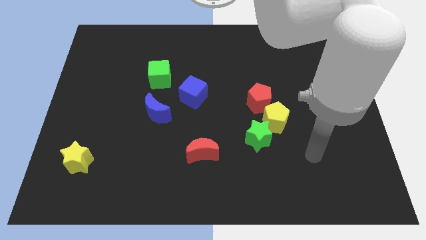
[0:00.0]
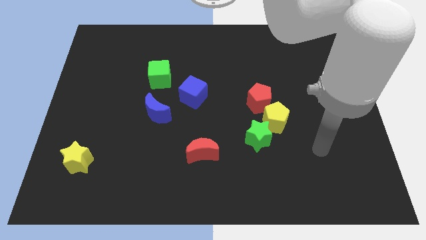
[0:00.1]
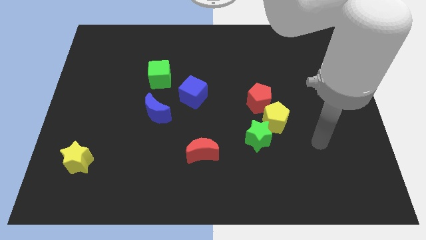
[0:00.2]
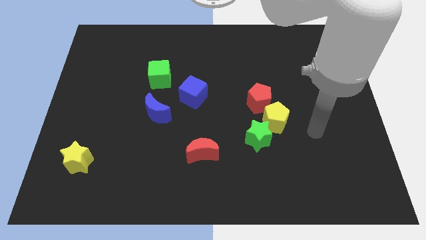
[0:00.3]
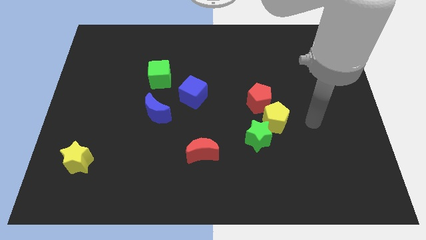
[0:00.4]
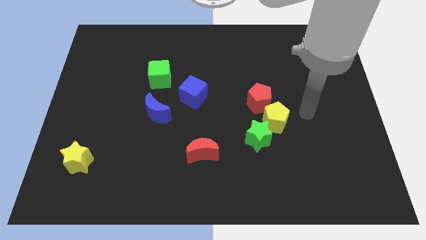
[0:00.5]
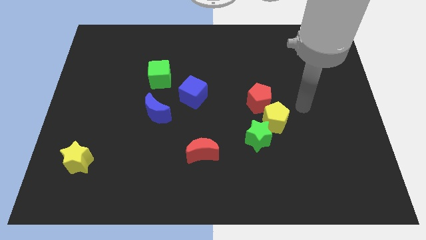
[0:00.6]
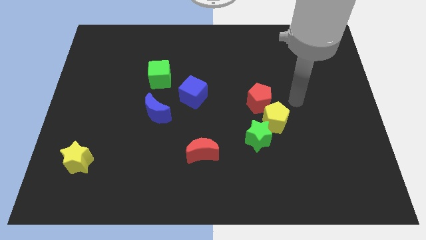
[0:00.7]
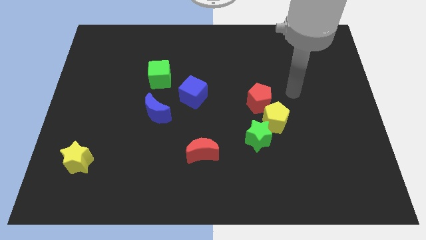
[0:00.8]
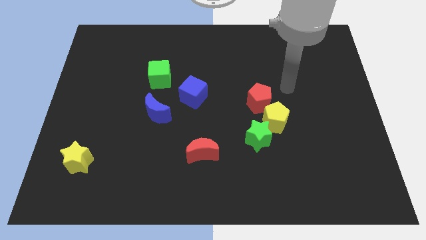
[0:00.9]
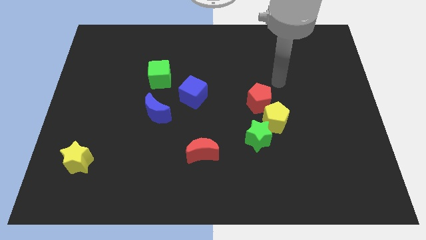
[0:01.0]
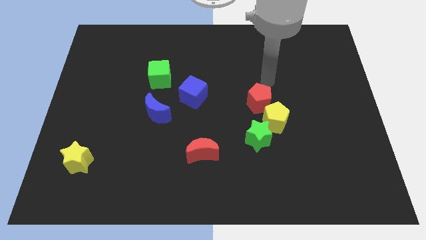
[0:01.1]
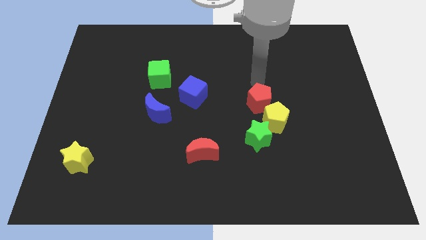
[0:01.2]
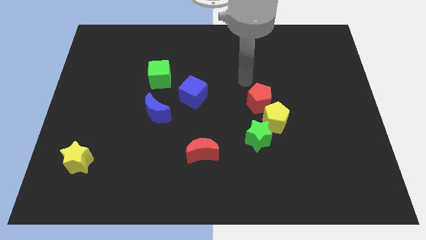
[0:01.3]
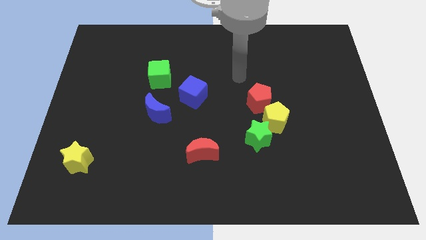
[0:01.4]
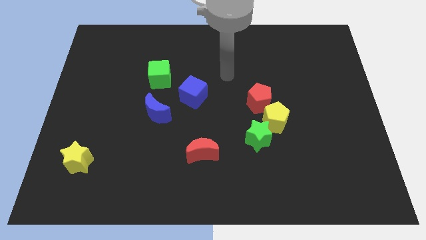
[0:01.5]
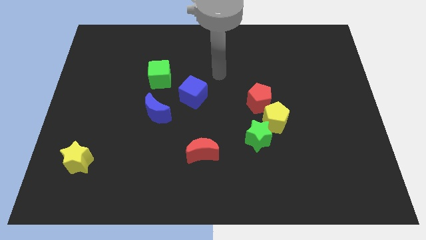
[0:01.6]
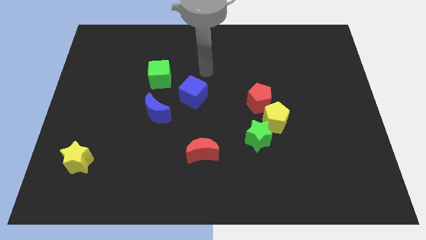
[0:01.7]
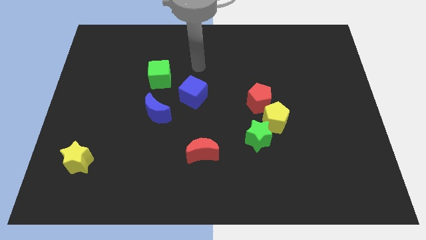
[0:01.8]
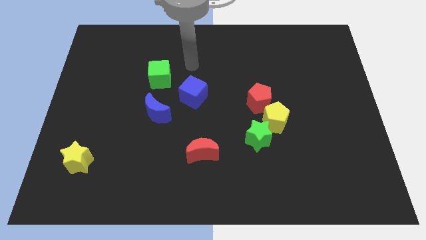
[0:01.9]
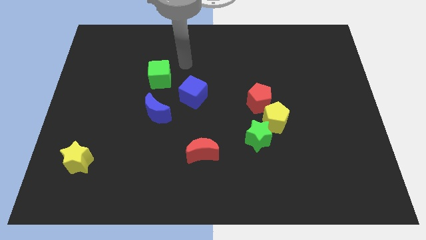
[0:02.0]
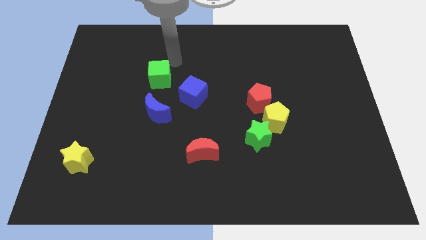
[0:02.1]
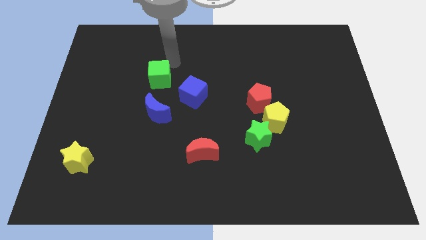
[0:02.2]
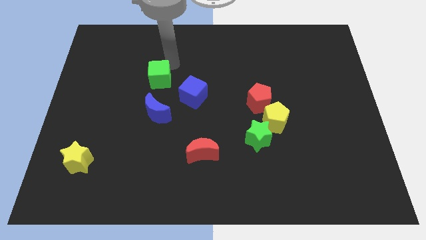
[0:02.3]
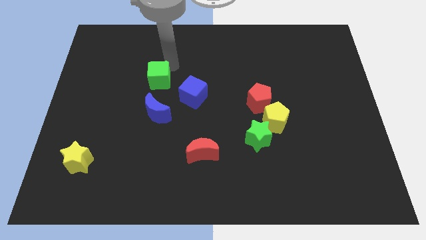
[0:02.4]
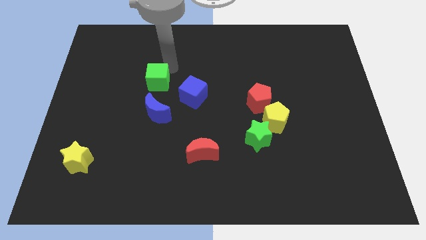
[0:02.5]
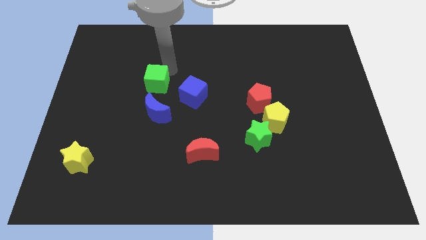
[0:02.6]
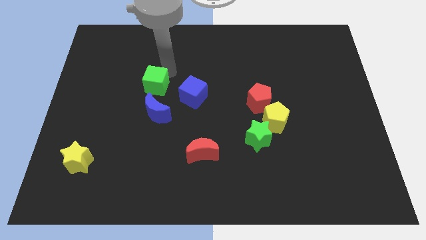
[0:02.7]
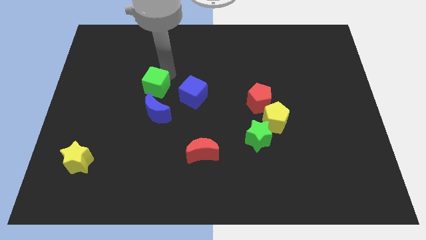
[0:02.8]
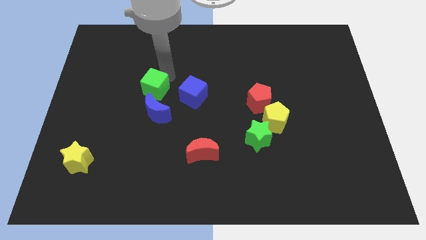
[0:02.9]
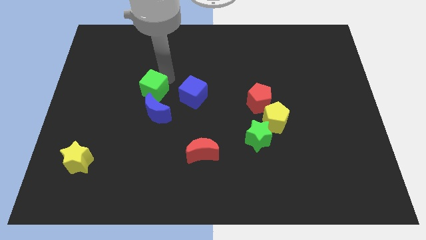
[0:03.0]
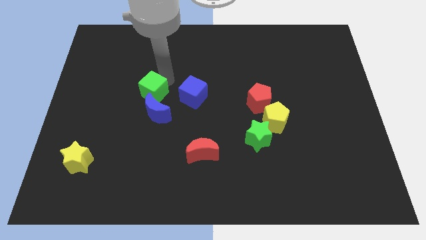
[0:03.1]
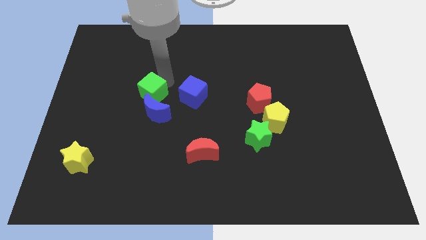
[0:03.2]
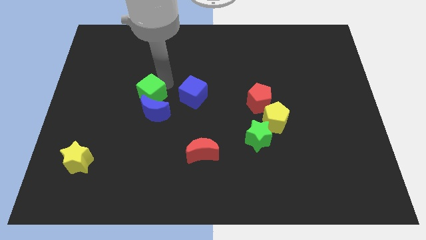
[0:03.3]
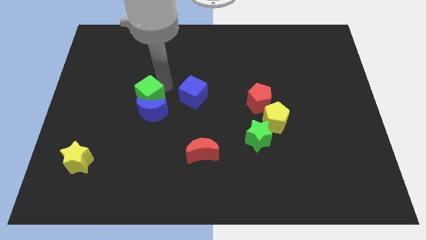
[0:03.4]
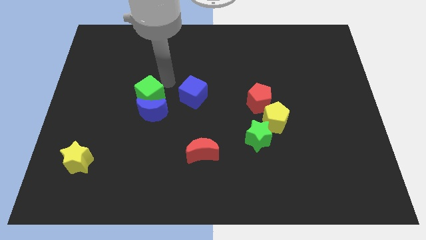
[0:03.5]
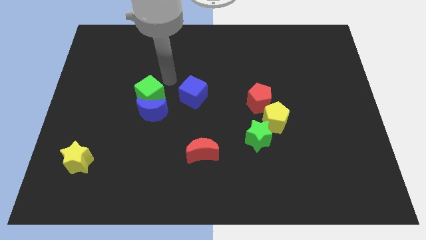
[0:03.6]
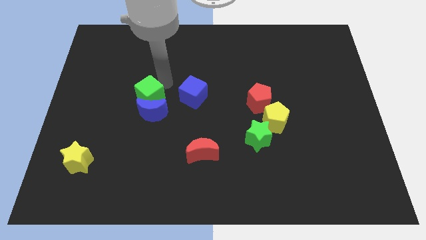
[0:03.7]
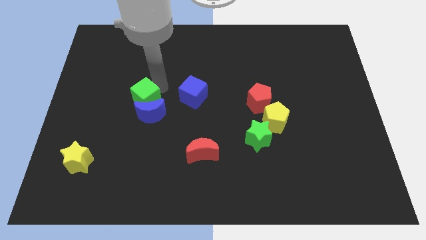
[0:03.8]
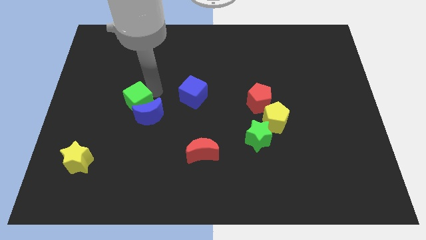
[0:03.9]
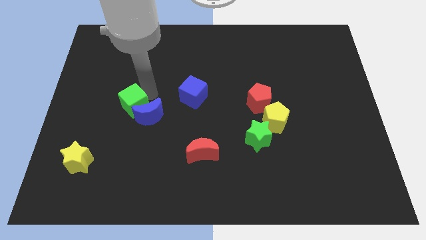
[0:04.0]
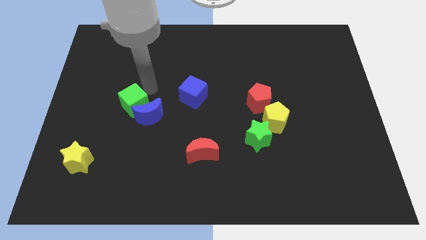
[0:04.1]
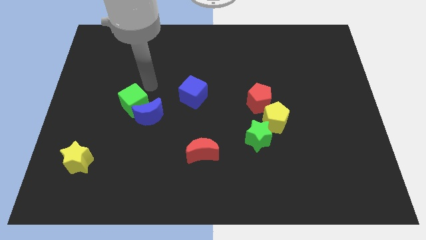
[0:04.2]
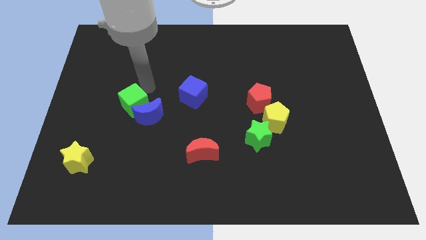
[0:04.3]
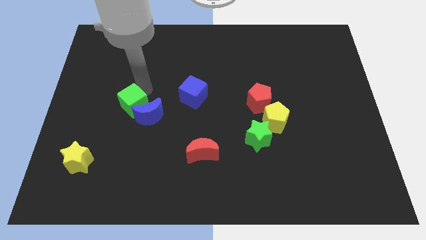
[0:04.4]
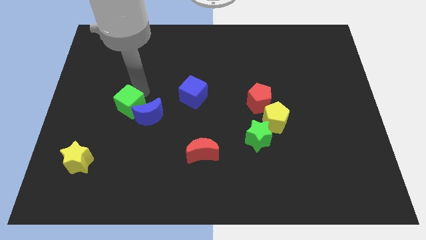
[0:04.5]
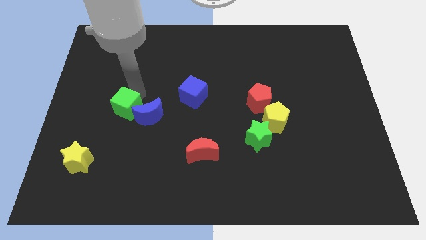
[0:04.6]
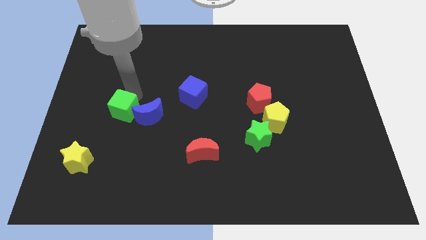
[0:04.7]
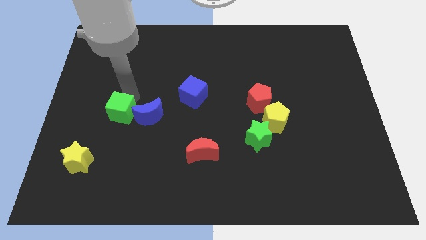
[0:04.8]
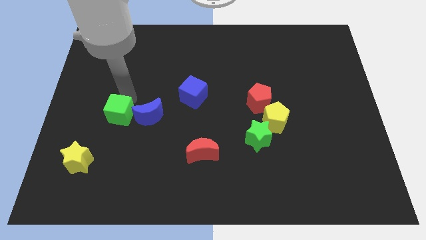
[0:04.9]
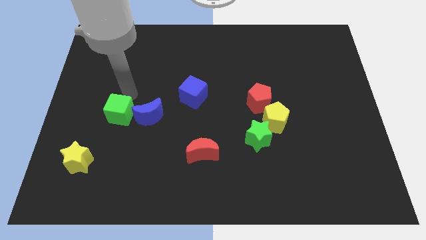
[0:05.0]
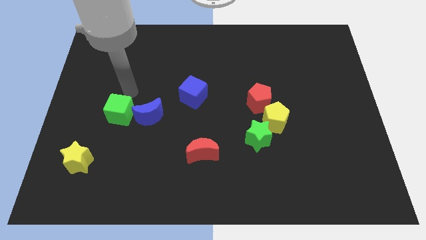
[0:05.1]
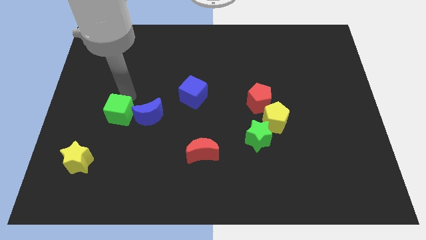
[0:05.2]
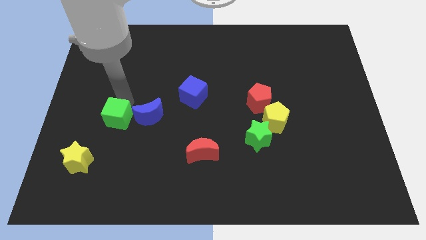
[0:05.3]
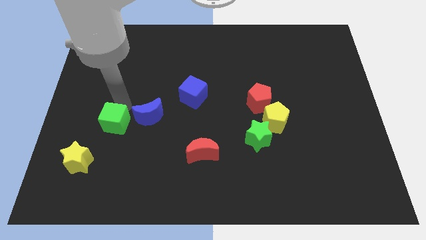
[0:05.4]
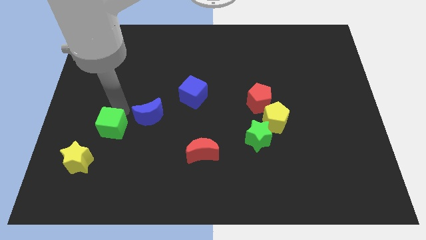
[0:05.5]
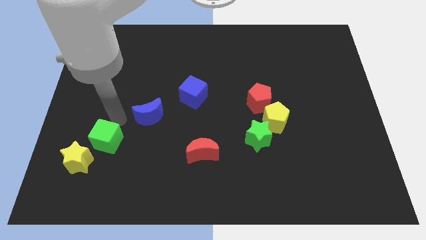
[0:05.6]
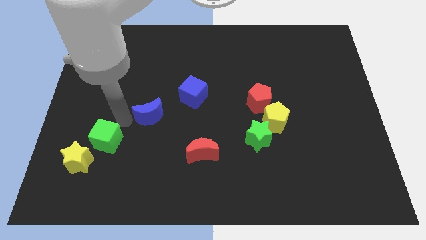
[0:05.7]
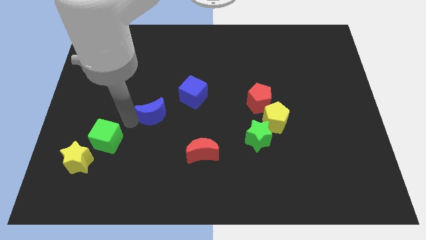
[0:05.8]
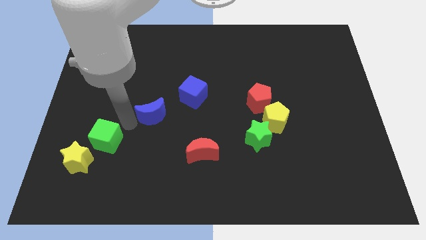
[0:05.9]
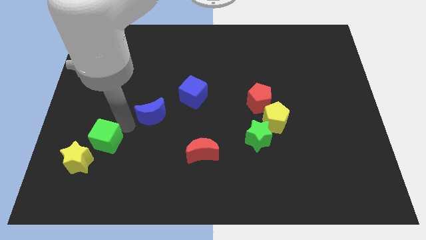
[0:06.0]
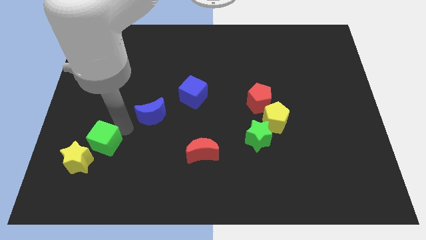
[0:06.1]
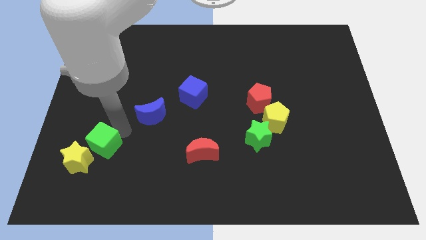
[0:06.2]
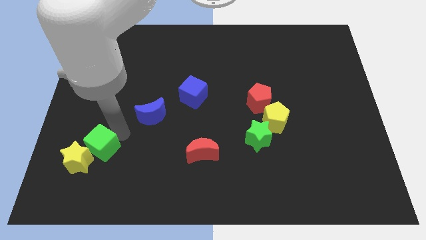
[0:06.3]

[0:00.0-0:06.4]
put the green cube towards the yellow star
